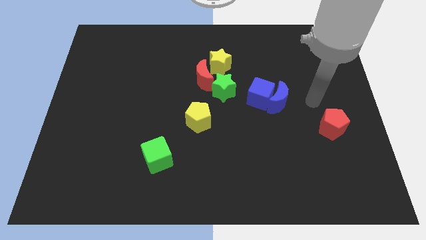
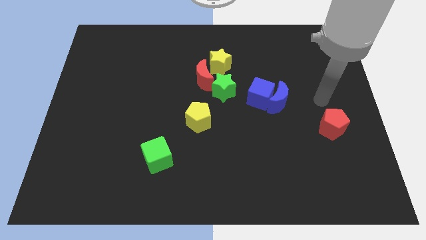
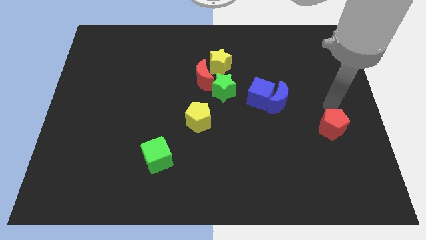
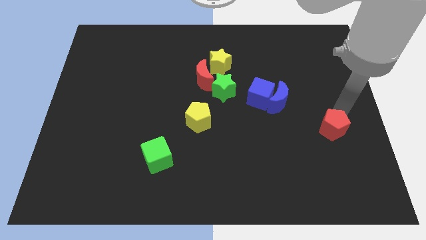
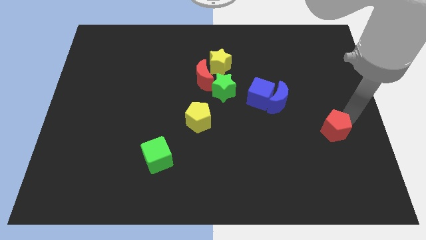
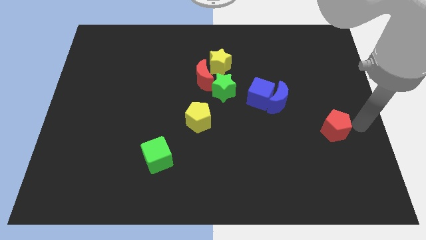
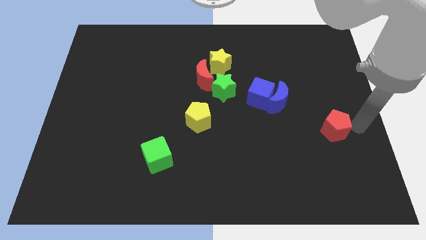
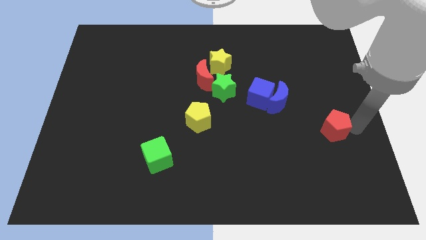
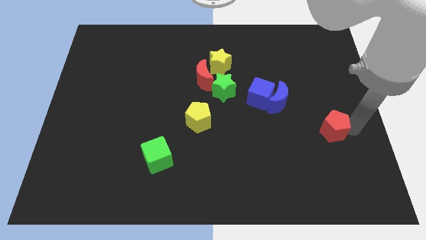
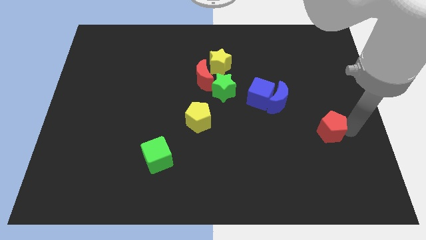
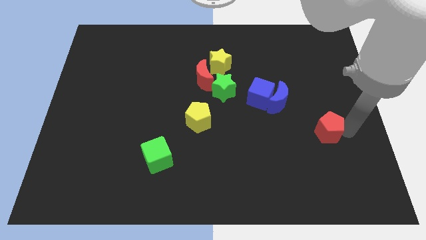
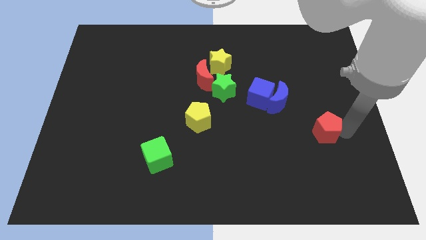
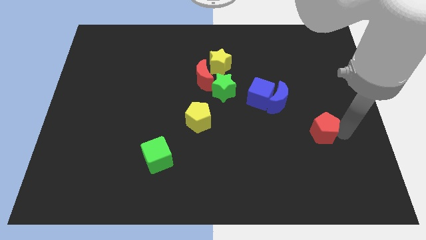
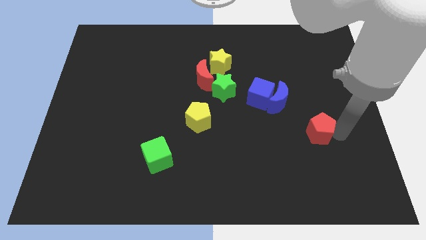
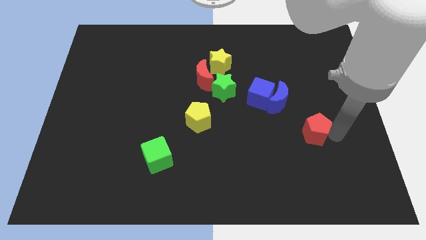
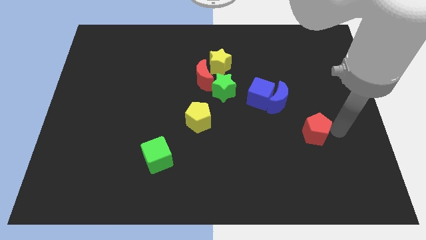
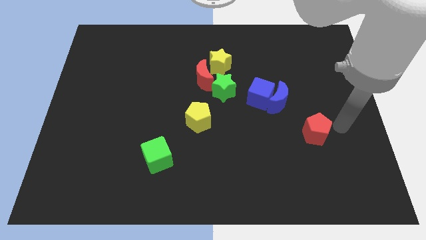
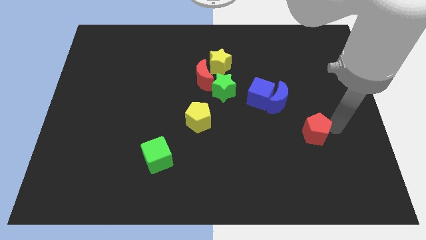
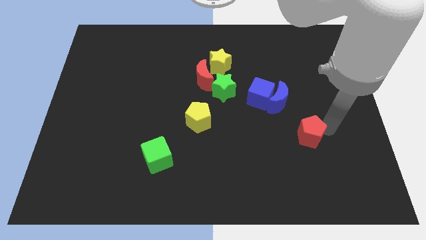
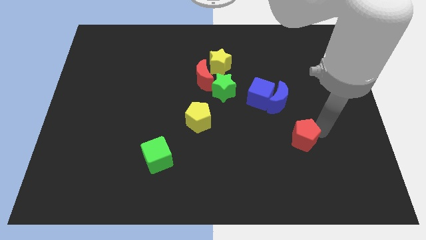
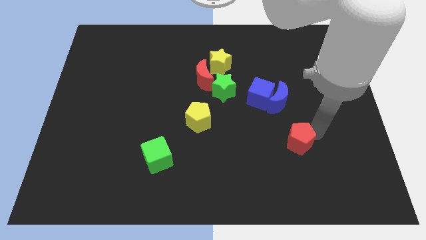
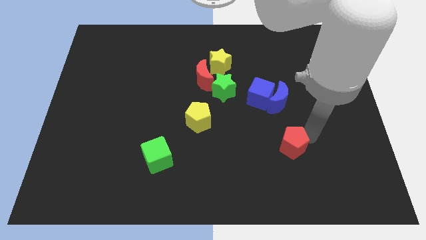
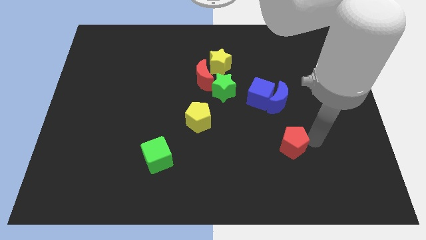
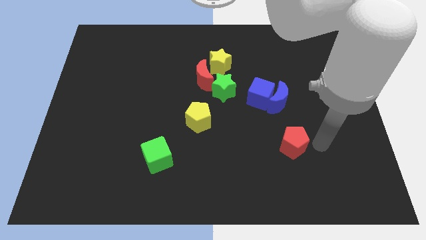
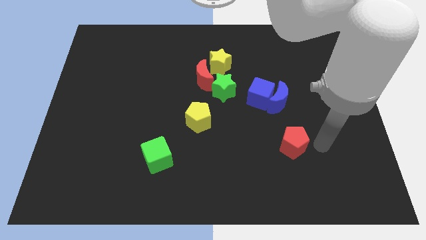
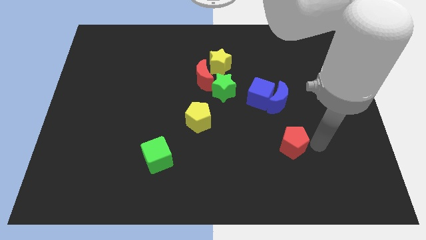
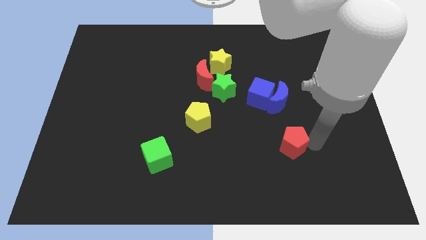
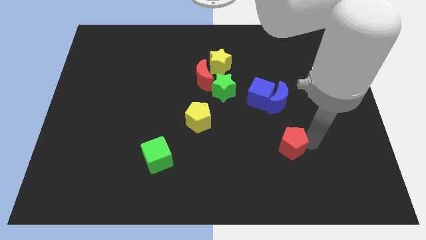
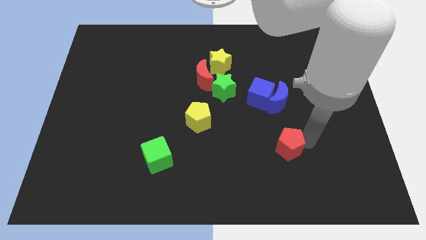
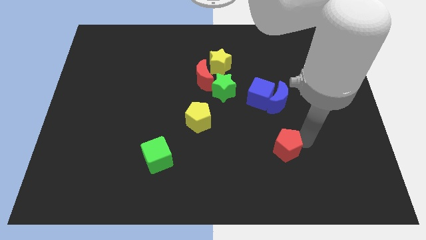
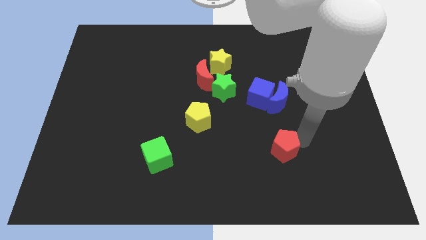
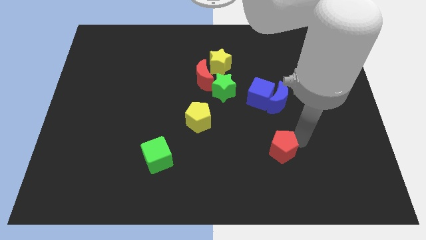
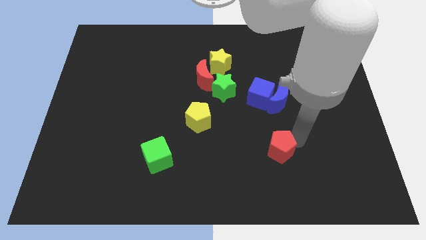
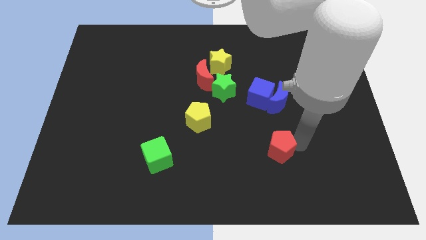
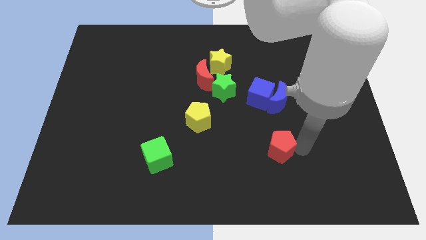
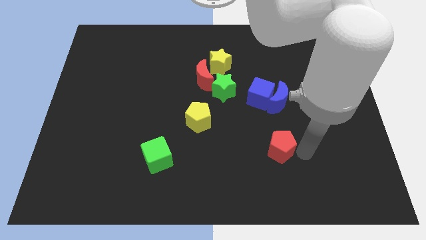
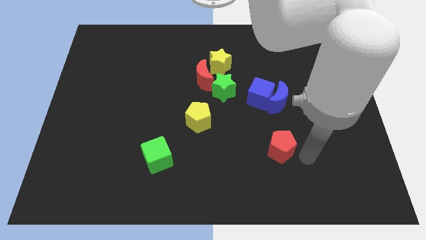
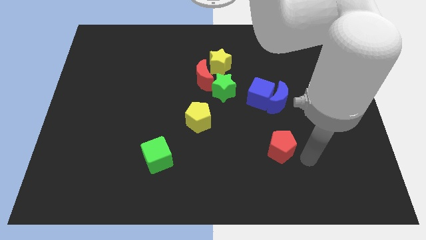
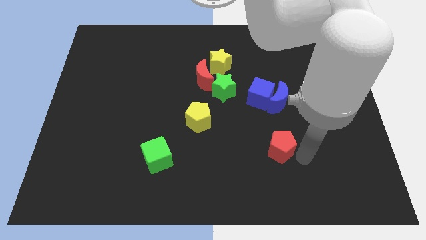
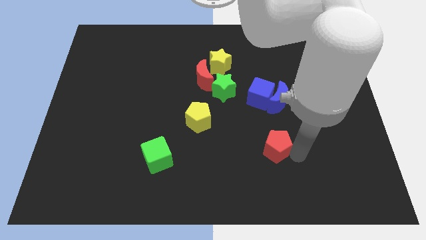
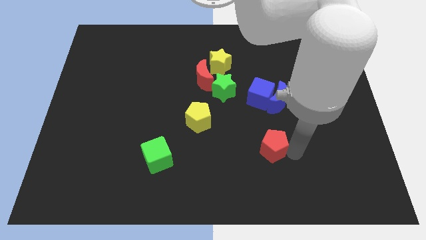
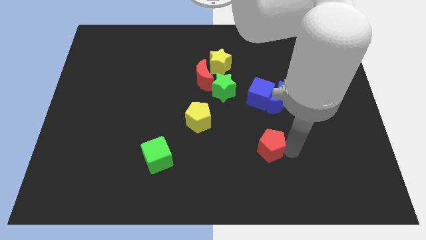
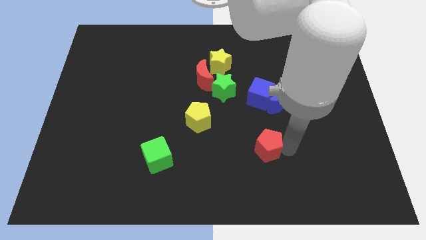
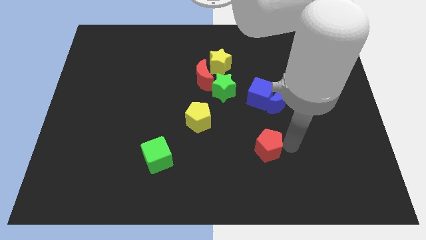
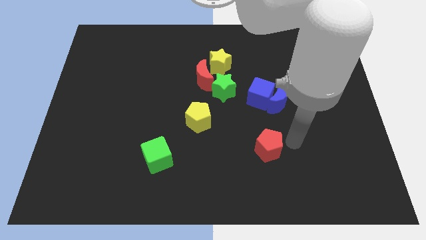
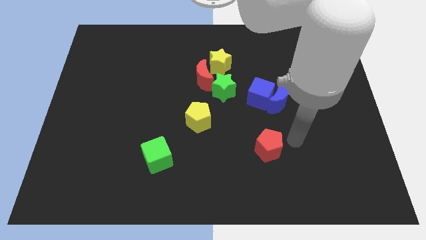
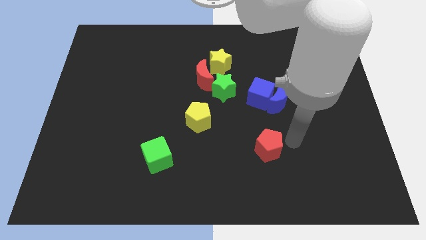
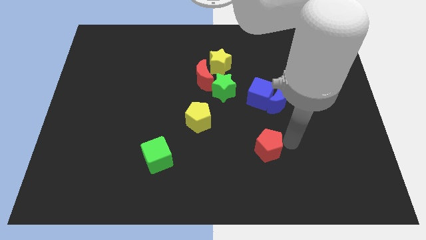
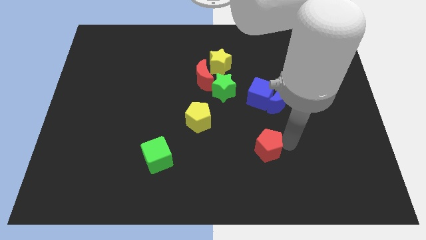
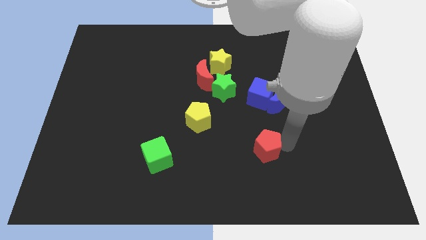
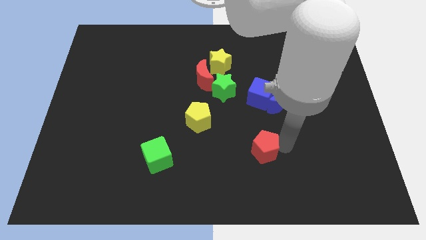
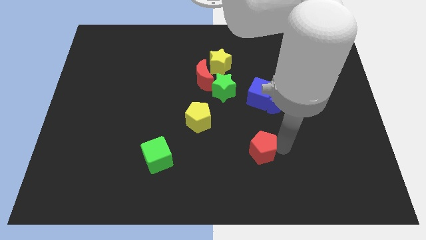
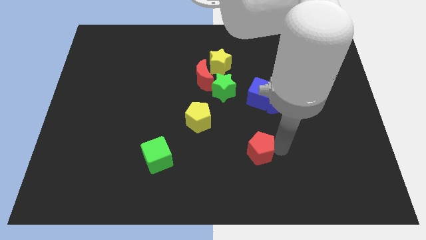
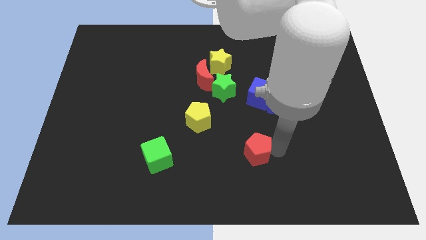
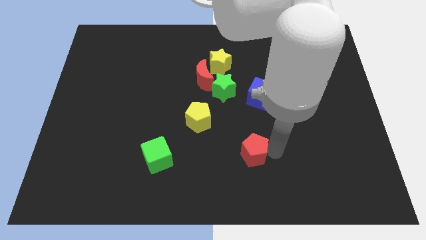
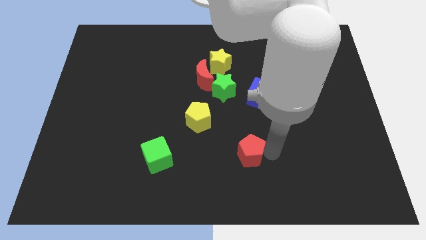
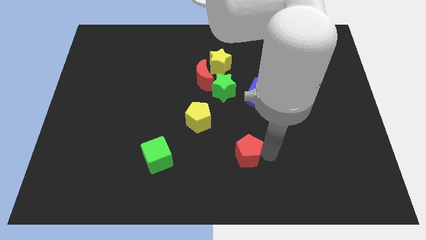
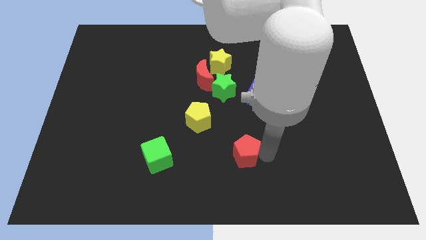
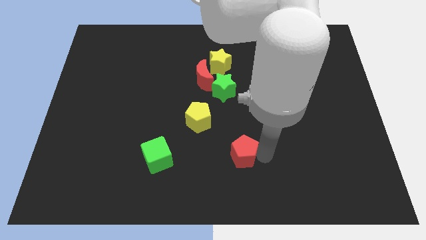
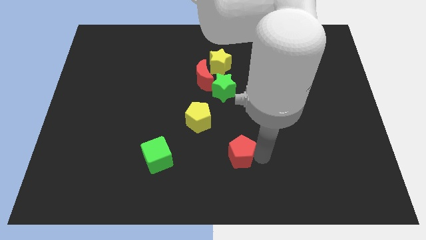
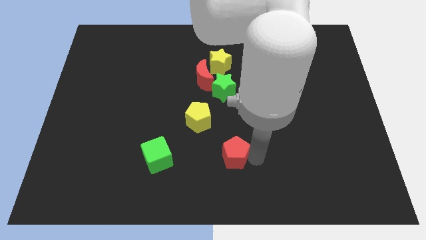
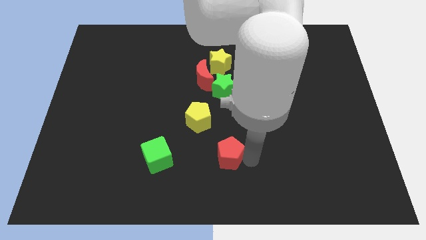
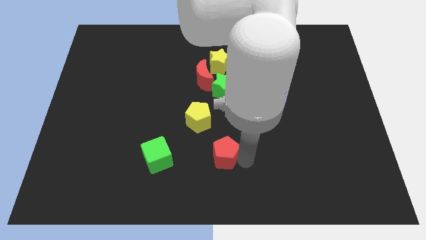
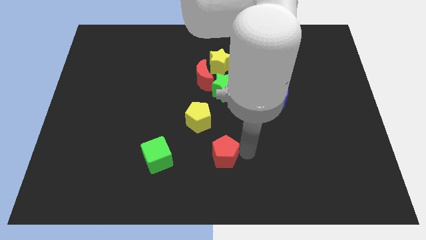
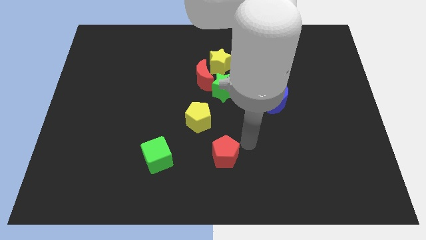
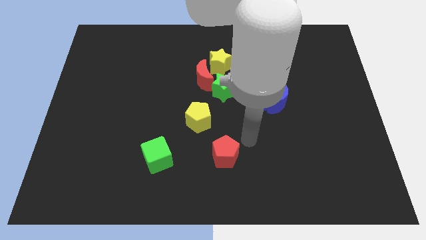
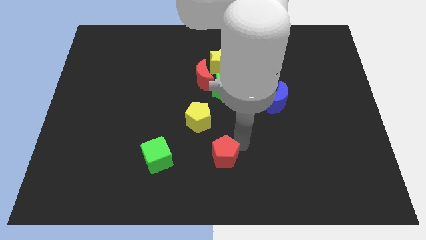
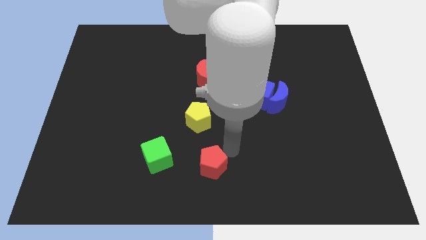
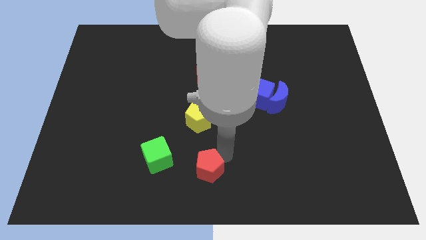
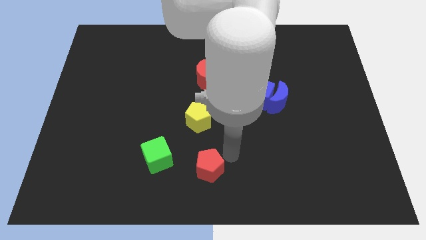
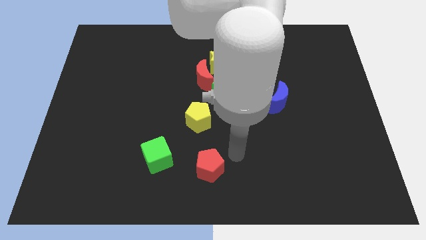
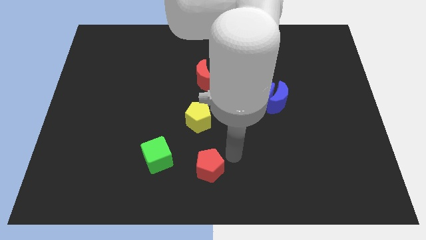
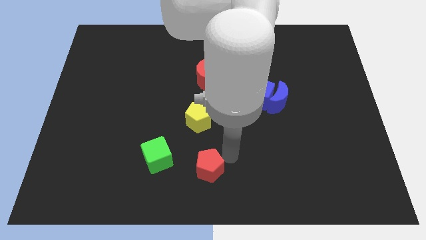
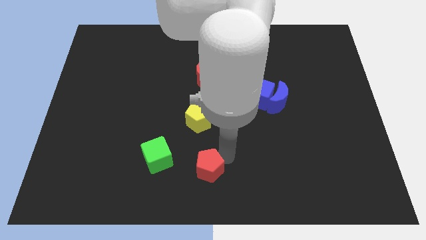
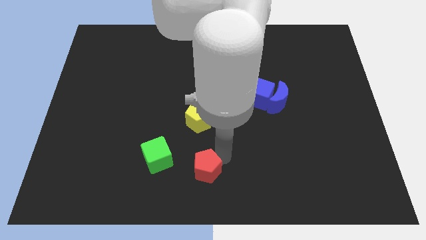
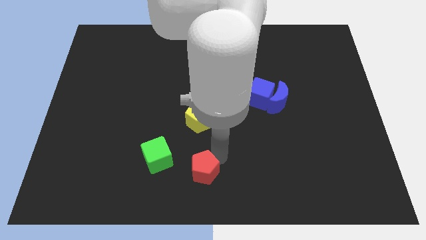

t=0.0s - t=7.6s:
put the red pentagon to the bottom right side of the green cube
